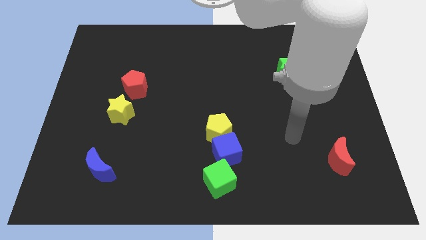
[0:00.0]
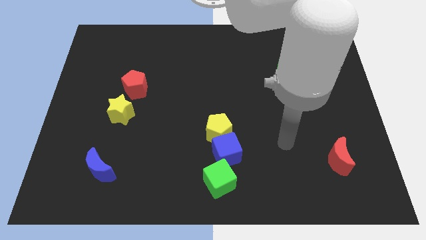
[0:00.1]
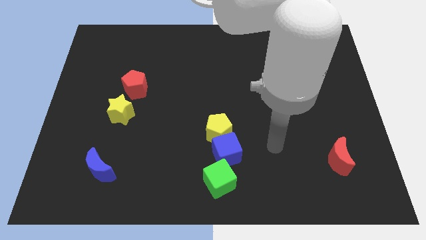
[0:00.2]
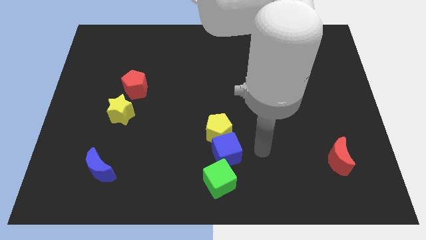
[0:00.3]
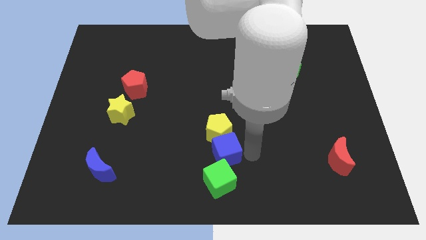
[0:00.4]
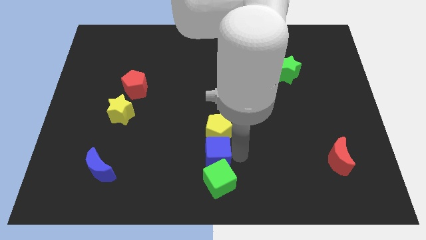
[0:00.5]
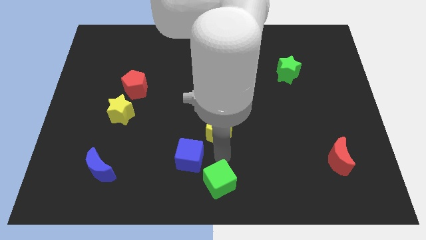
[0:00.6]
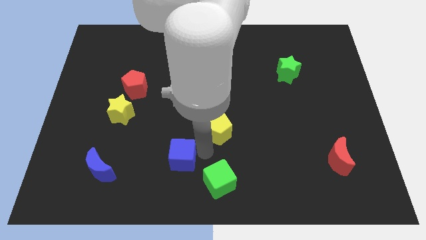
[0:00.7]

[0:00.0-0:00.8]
move the yellow pentagon away from the blue cube

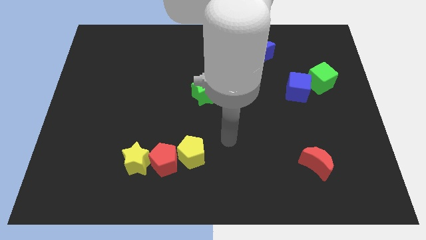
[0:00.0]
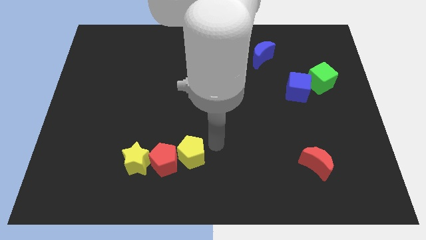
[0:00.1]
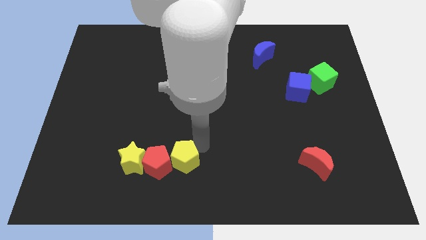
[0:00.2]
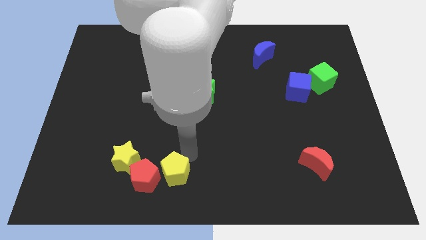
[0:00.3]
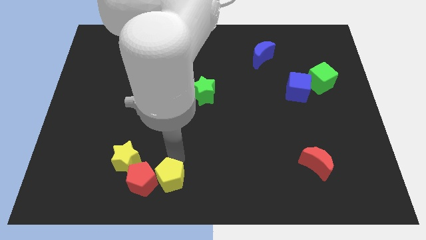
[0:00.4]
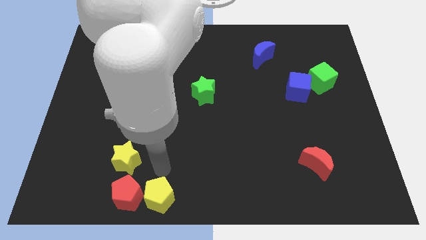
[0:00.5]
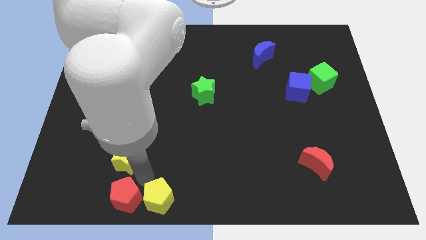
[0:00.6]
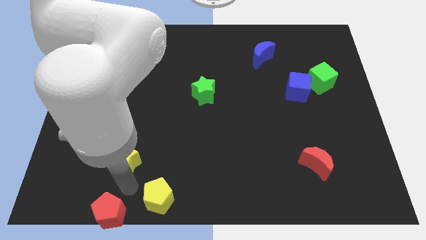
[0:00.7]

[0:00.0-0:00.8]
move the yellow star away from the red pentagon

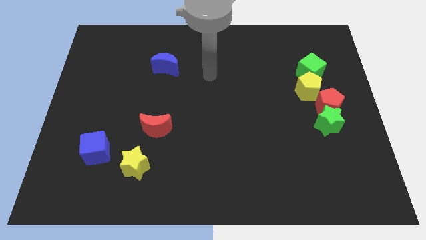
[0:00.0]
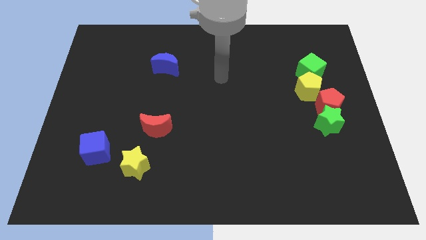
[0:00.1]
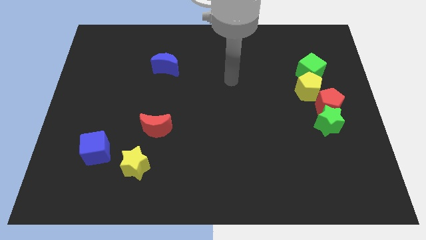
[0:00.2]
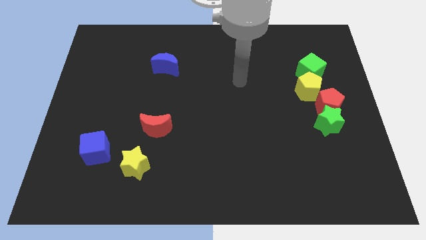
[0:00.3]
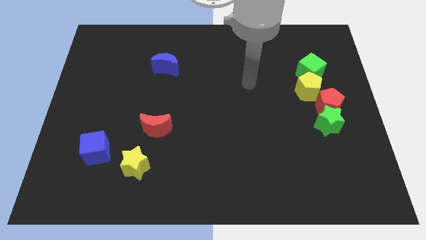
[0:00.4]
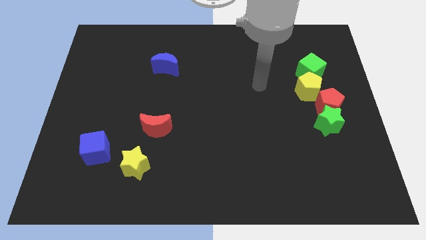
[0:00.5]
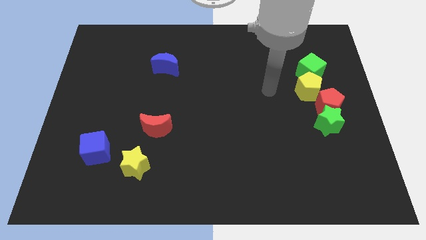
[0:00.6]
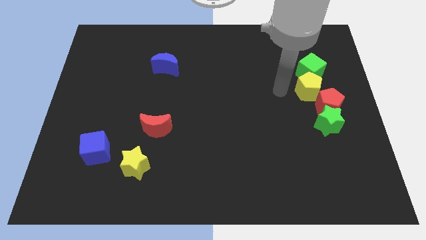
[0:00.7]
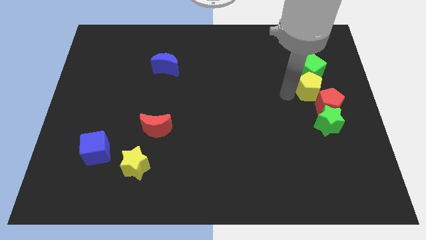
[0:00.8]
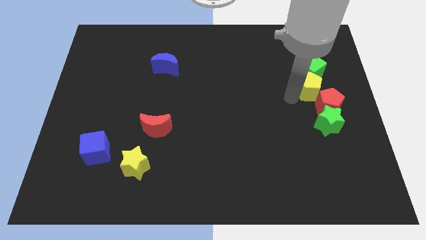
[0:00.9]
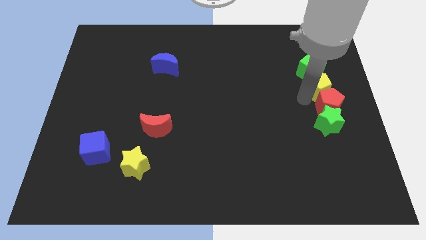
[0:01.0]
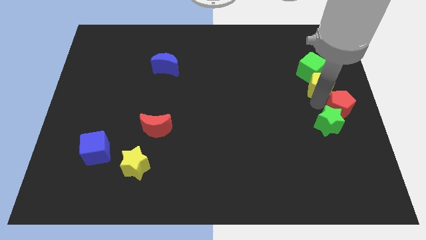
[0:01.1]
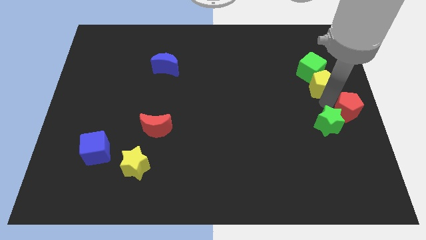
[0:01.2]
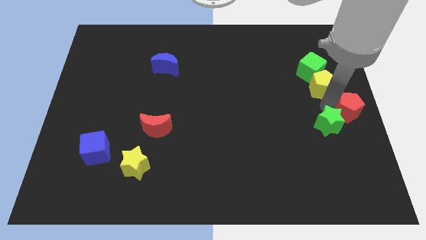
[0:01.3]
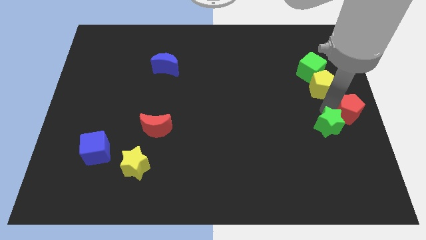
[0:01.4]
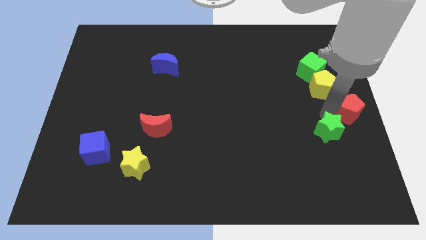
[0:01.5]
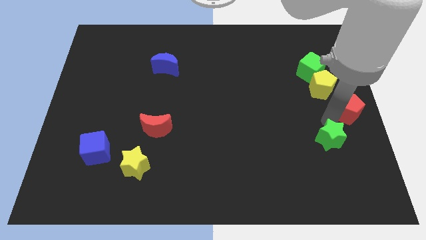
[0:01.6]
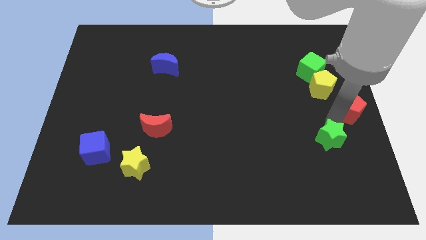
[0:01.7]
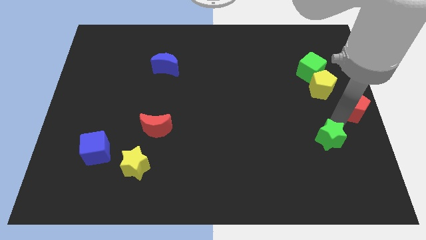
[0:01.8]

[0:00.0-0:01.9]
separate the green star from the red pentagon

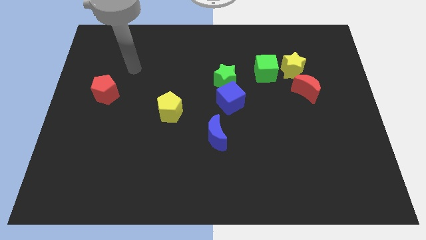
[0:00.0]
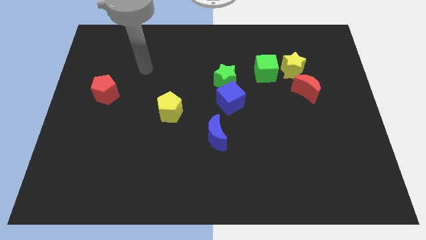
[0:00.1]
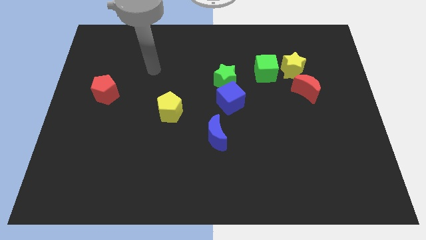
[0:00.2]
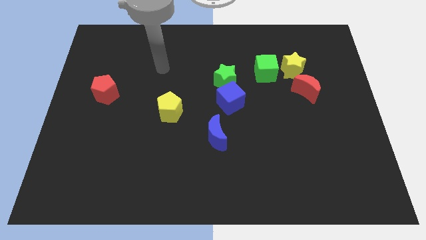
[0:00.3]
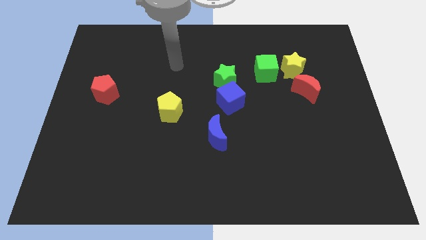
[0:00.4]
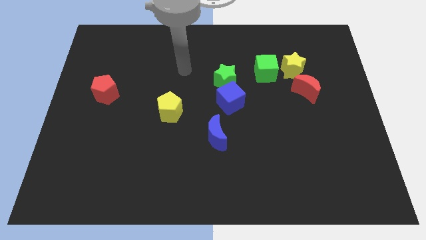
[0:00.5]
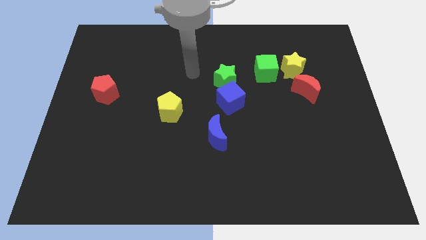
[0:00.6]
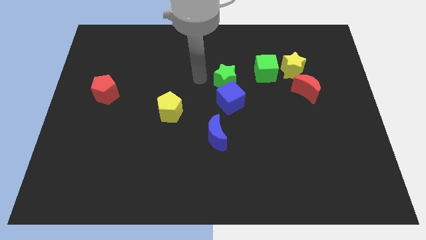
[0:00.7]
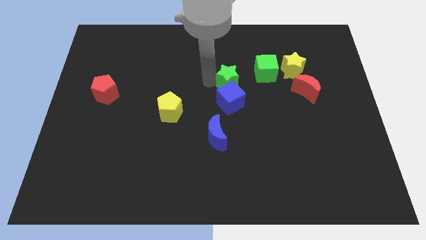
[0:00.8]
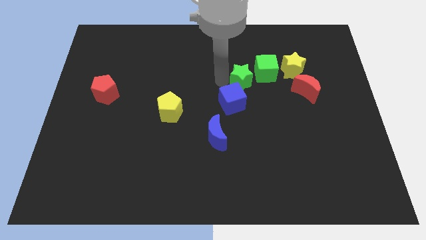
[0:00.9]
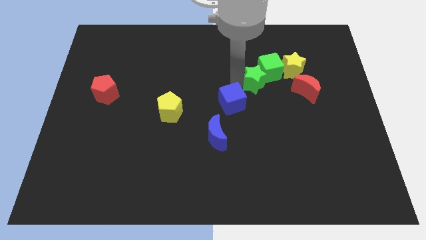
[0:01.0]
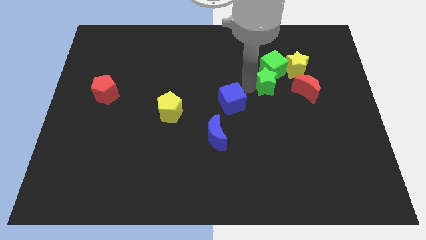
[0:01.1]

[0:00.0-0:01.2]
pull the blue cube apart from the green star

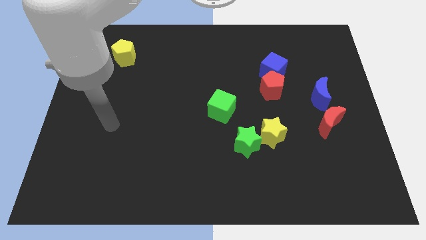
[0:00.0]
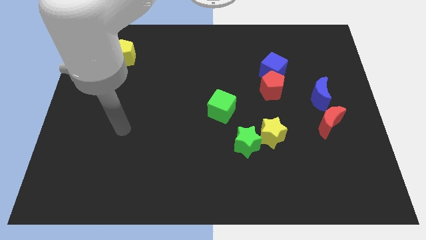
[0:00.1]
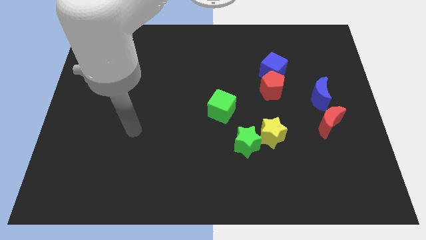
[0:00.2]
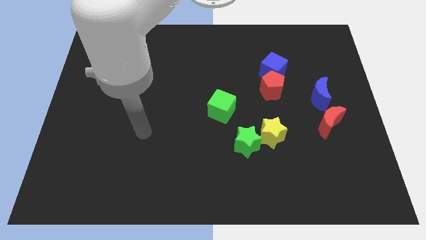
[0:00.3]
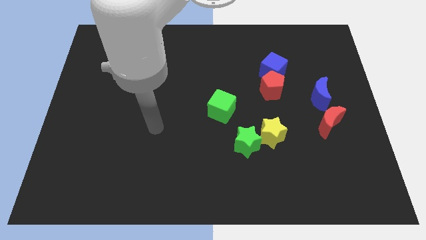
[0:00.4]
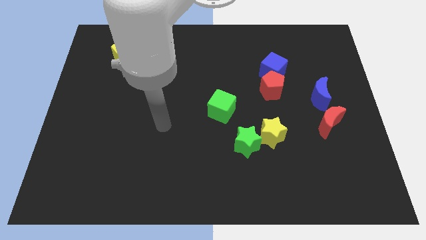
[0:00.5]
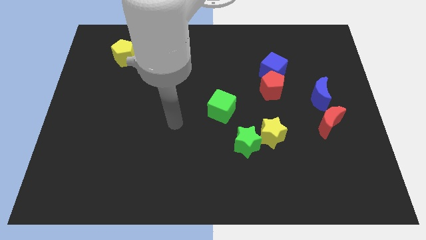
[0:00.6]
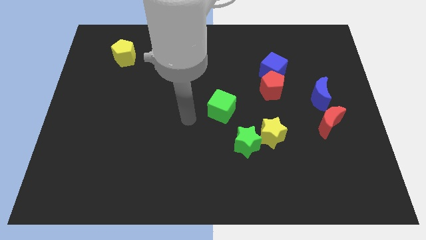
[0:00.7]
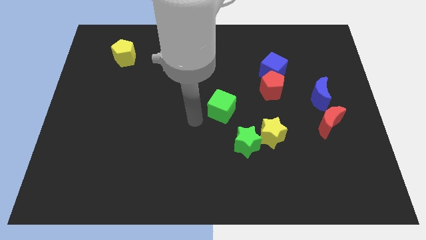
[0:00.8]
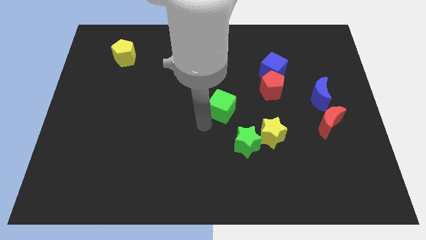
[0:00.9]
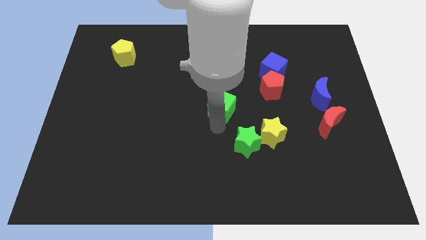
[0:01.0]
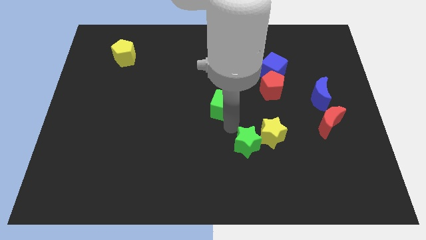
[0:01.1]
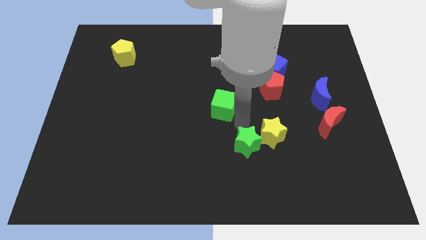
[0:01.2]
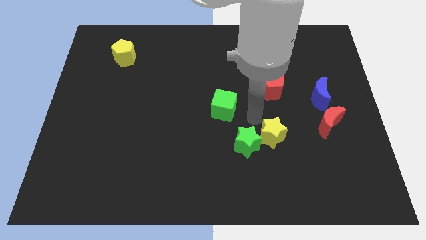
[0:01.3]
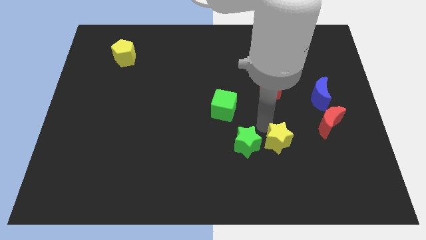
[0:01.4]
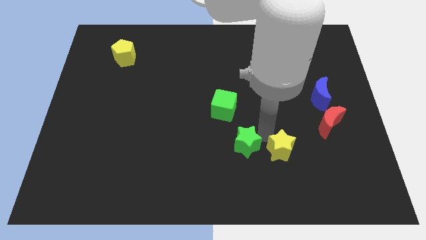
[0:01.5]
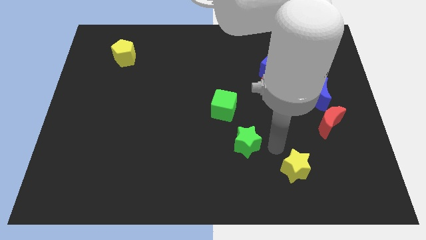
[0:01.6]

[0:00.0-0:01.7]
move the green star away from the yellow star

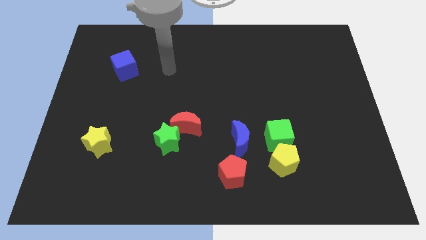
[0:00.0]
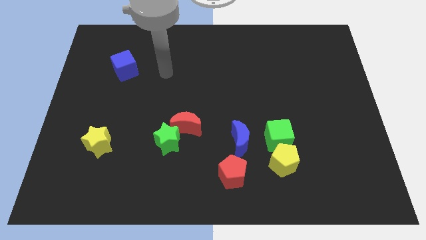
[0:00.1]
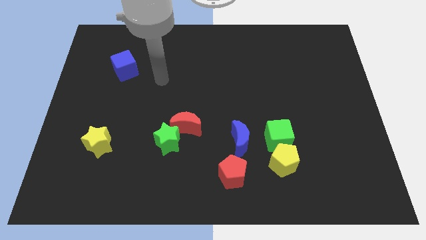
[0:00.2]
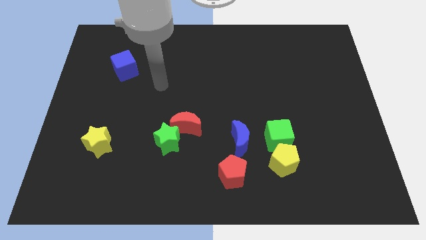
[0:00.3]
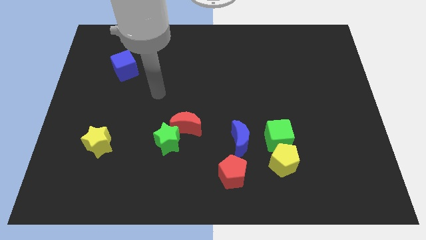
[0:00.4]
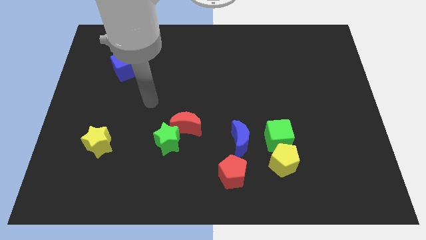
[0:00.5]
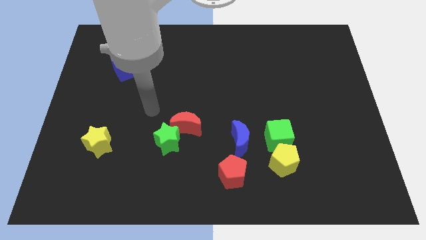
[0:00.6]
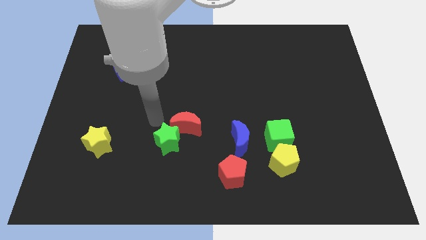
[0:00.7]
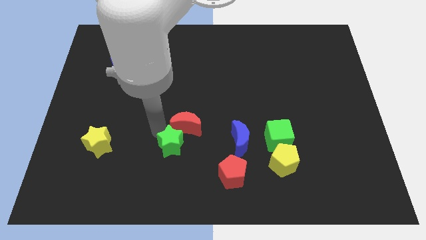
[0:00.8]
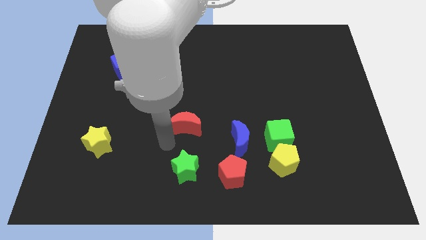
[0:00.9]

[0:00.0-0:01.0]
pull the red moon apart from the green star

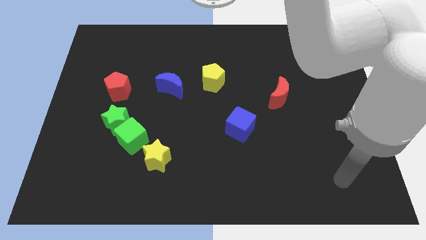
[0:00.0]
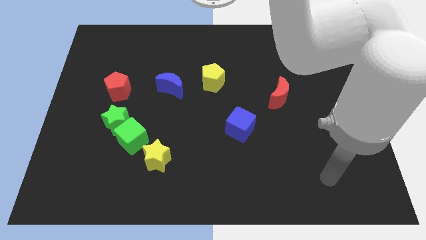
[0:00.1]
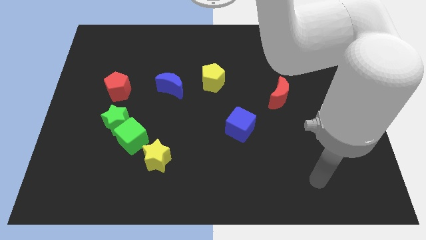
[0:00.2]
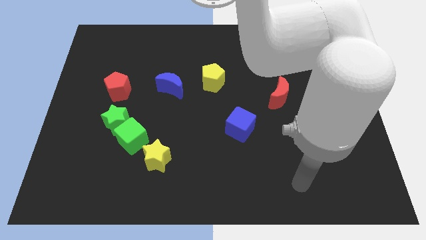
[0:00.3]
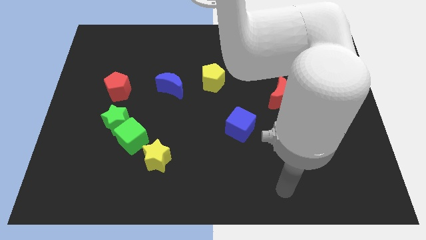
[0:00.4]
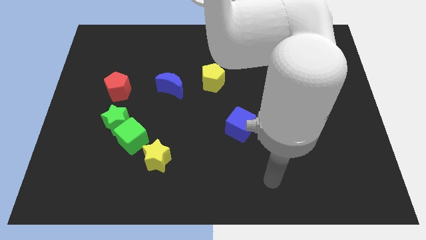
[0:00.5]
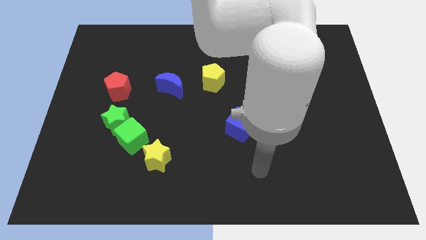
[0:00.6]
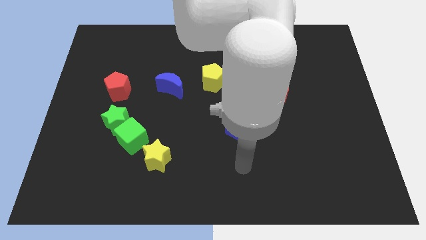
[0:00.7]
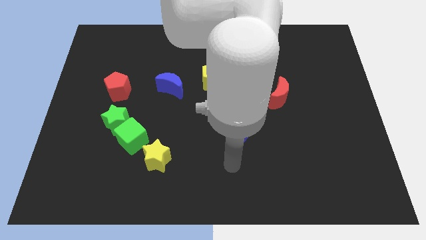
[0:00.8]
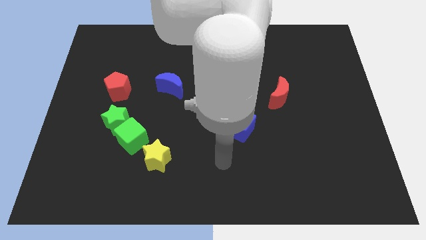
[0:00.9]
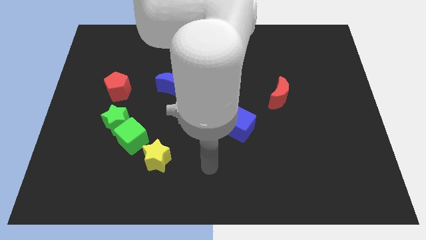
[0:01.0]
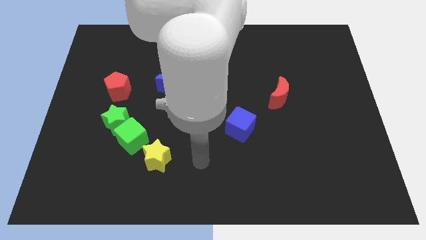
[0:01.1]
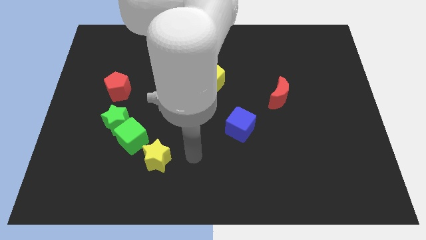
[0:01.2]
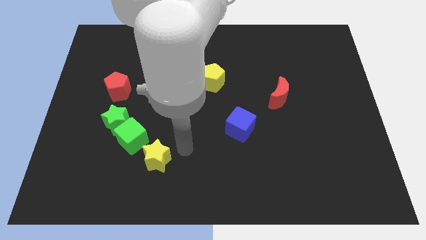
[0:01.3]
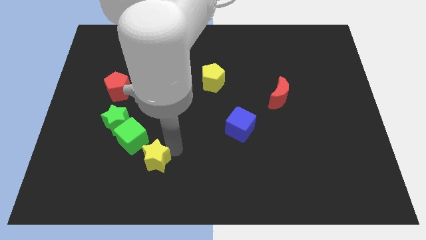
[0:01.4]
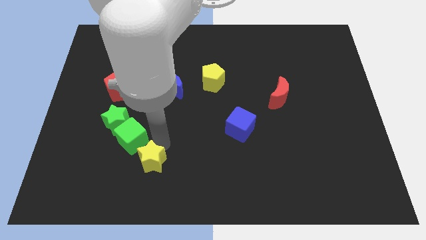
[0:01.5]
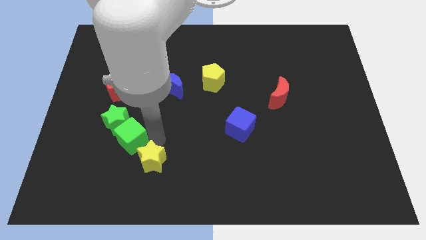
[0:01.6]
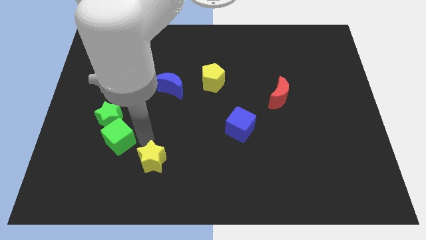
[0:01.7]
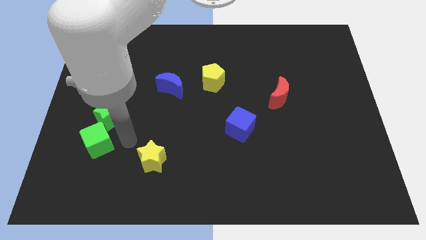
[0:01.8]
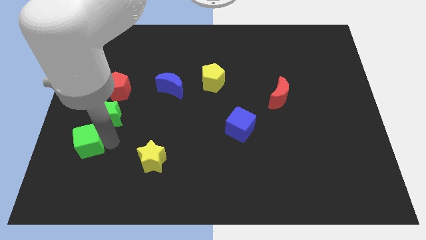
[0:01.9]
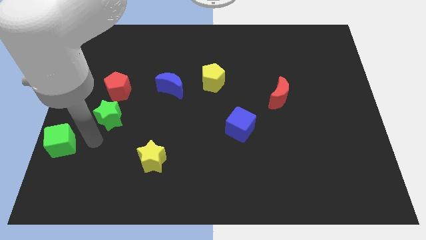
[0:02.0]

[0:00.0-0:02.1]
move the green star away from the green cube
